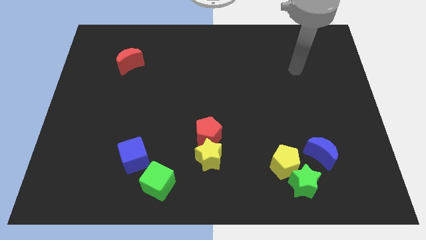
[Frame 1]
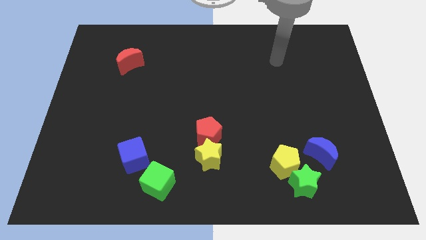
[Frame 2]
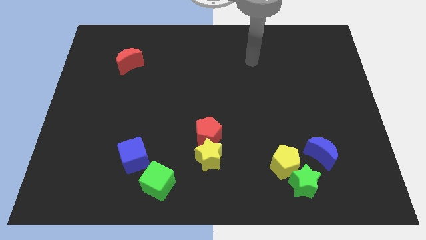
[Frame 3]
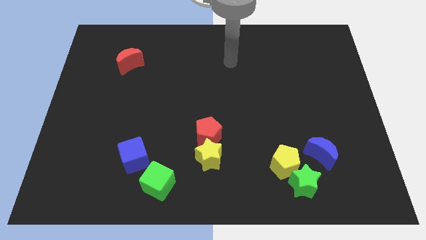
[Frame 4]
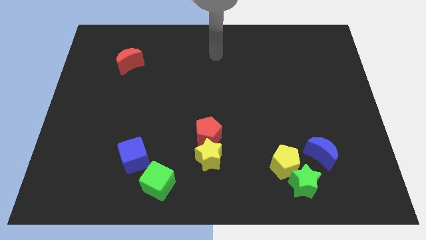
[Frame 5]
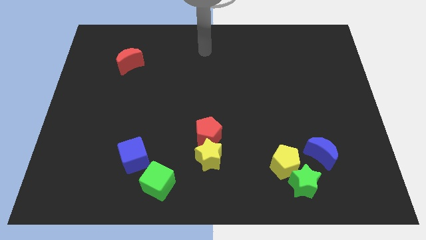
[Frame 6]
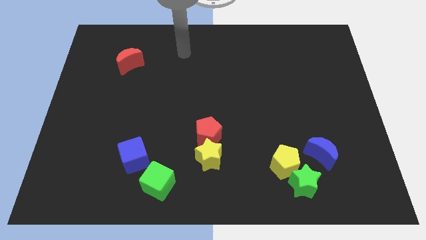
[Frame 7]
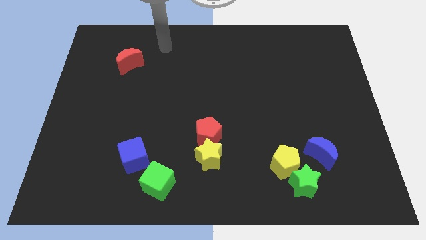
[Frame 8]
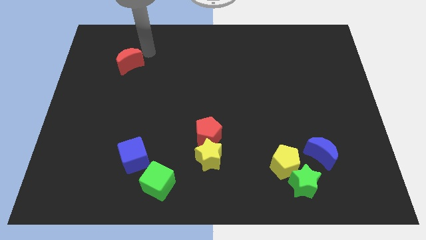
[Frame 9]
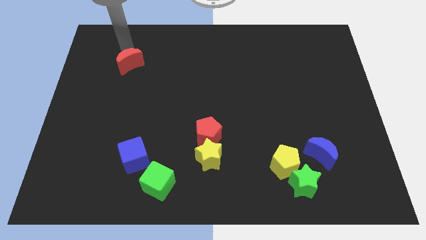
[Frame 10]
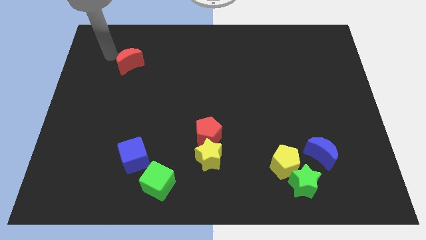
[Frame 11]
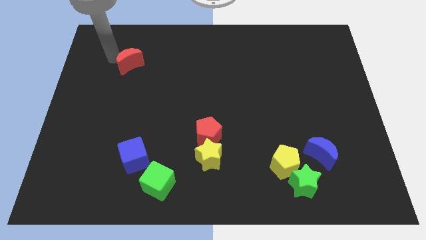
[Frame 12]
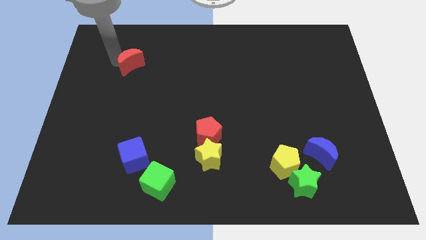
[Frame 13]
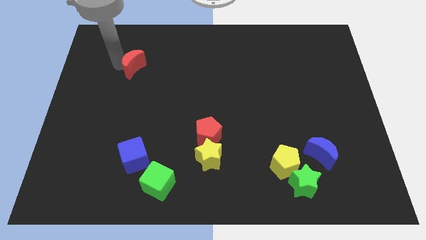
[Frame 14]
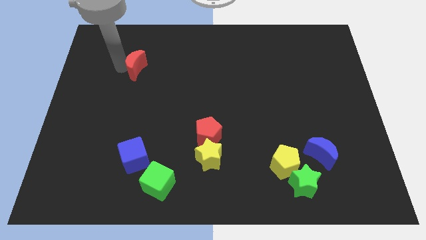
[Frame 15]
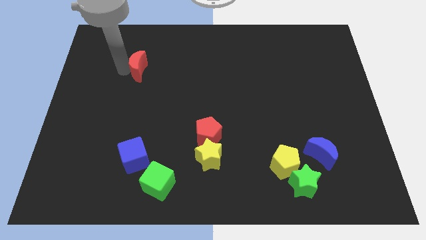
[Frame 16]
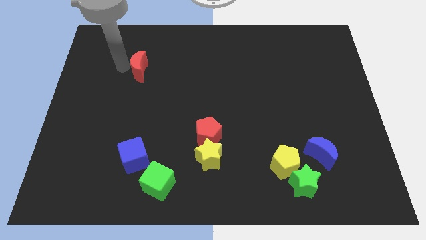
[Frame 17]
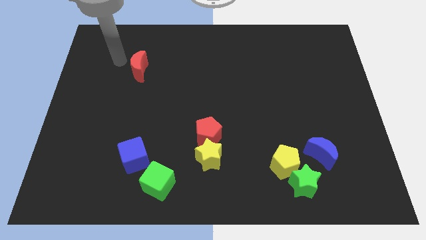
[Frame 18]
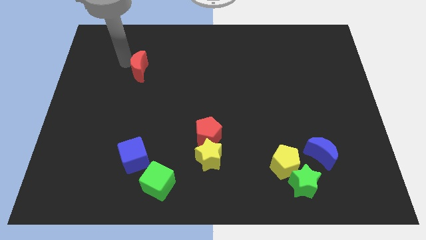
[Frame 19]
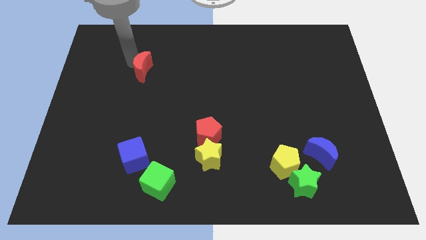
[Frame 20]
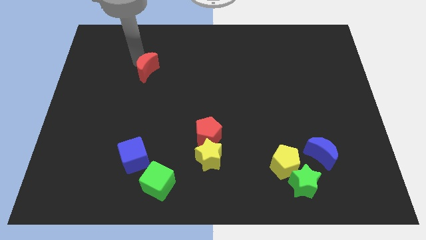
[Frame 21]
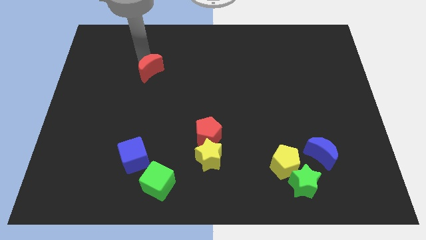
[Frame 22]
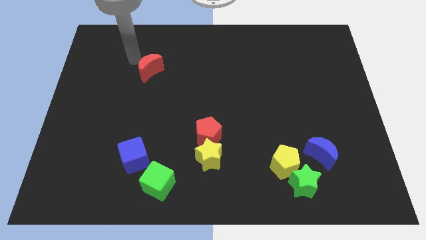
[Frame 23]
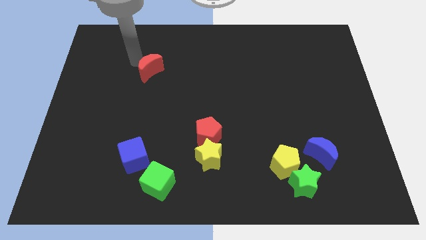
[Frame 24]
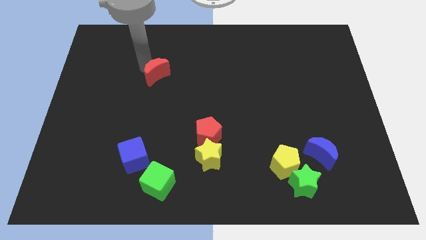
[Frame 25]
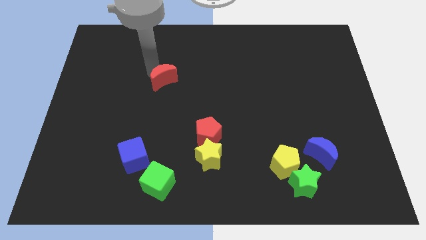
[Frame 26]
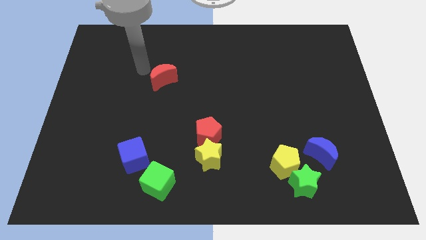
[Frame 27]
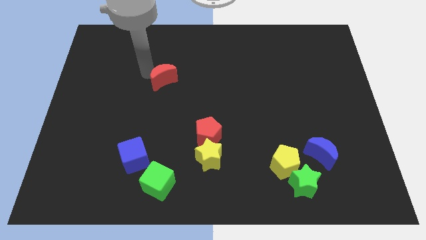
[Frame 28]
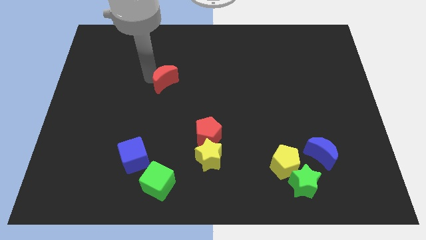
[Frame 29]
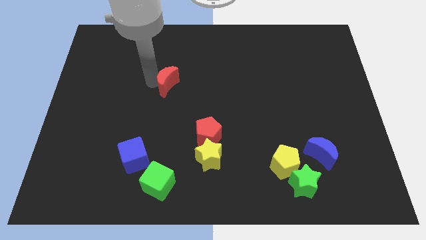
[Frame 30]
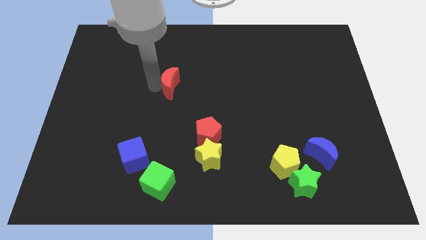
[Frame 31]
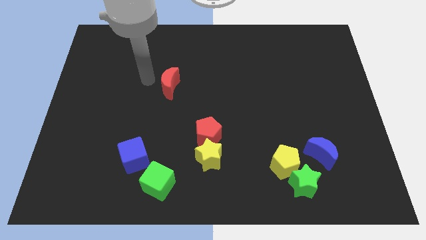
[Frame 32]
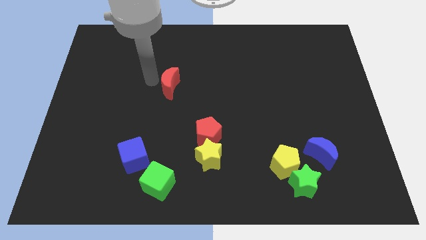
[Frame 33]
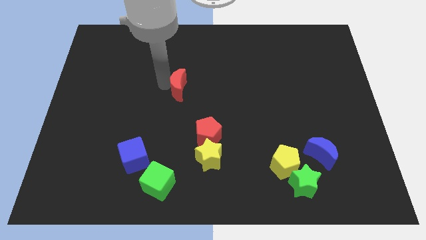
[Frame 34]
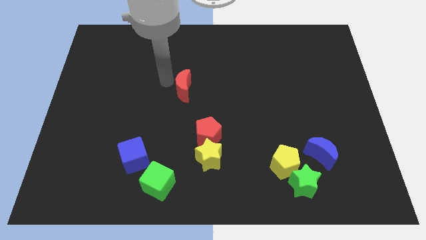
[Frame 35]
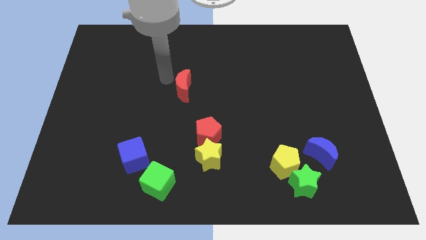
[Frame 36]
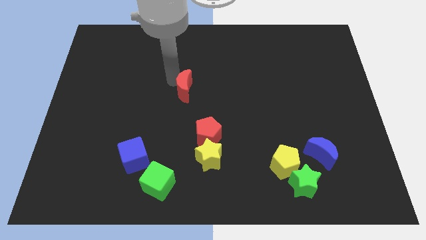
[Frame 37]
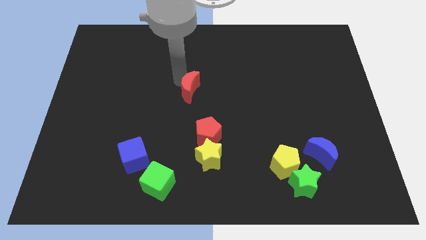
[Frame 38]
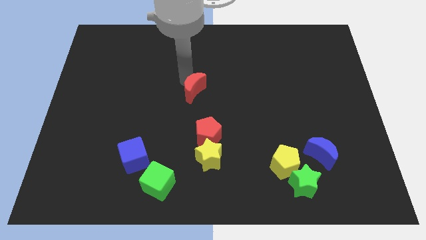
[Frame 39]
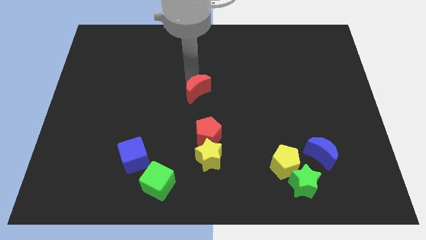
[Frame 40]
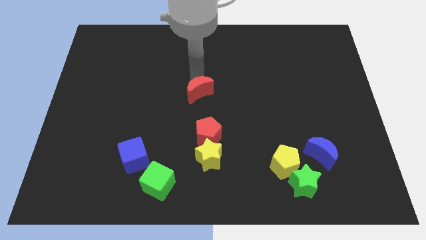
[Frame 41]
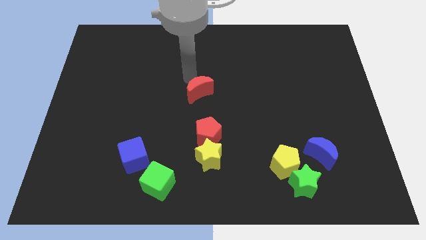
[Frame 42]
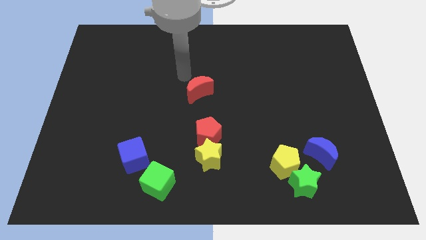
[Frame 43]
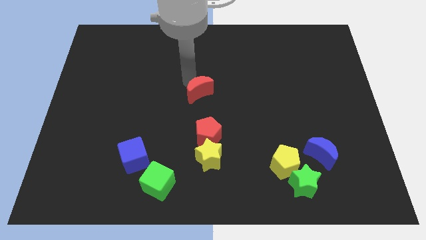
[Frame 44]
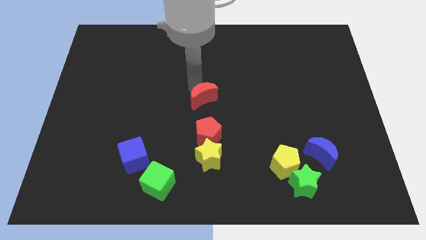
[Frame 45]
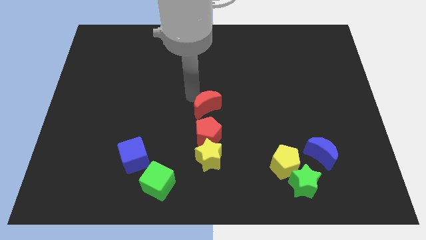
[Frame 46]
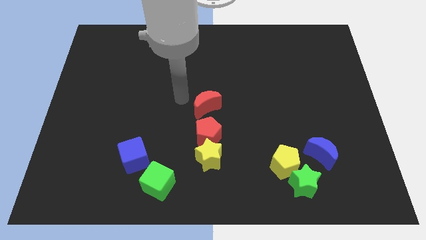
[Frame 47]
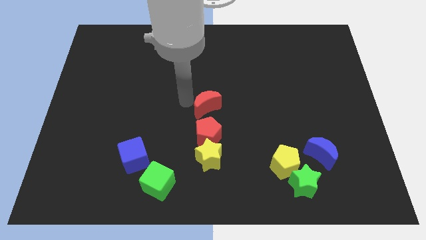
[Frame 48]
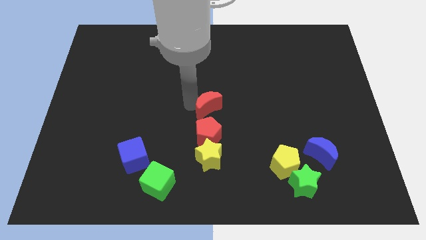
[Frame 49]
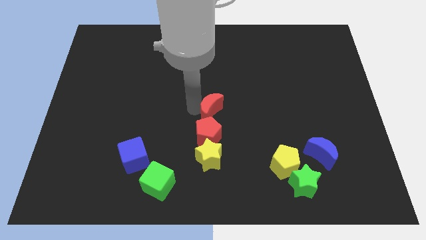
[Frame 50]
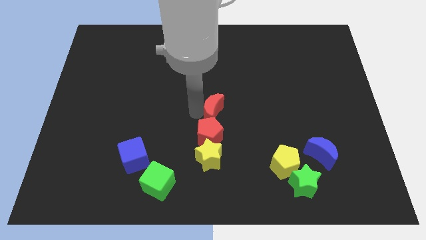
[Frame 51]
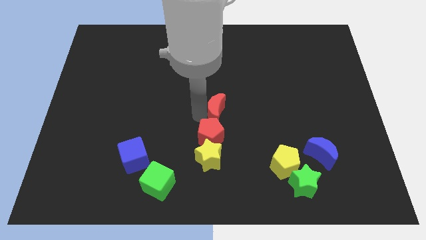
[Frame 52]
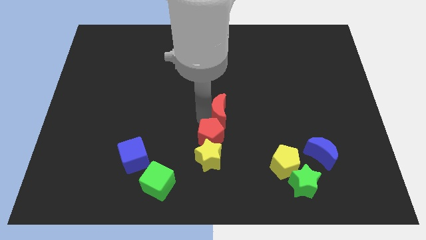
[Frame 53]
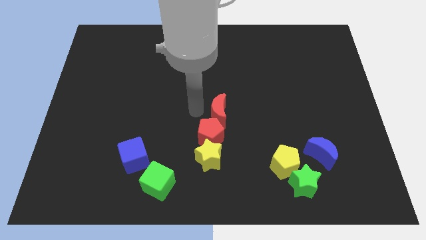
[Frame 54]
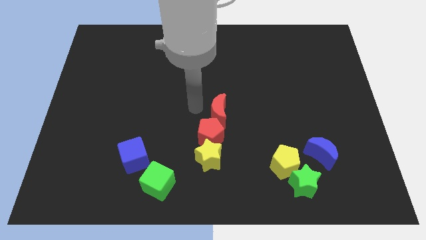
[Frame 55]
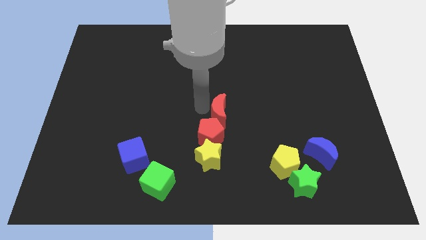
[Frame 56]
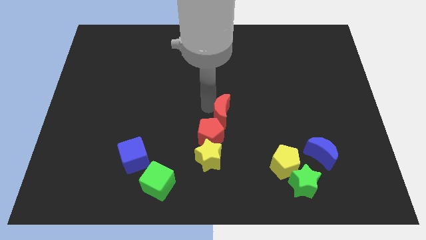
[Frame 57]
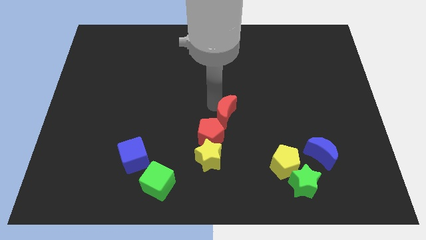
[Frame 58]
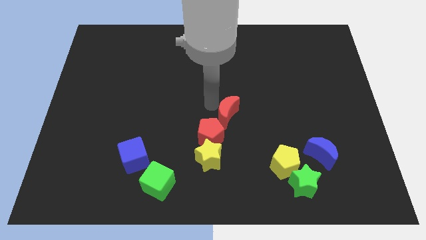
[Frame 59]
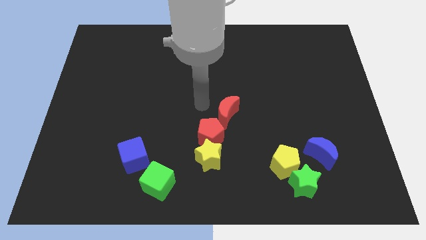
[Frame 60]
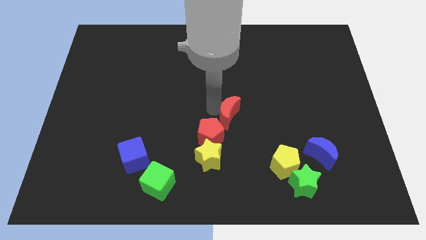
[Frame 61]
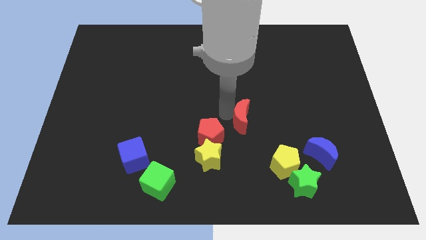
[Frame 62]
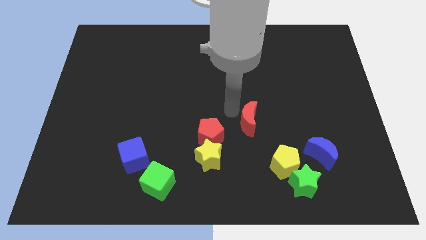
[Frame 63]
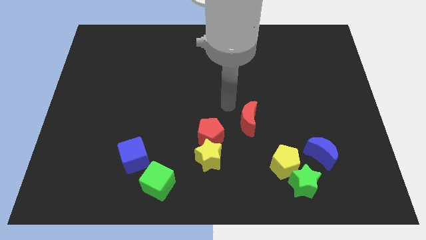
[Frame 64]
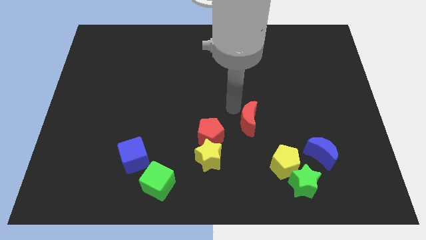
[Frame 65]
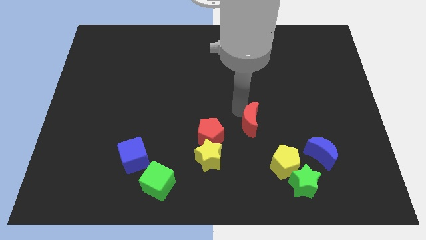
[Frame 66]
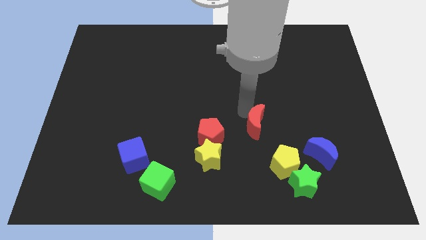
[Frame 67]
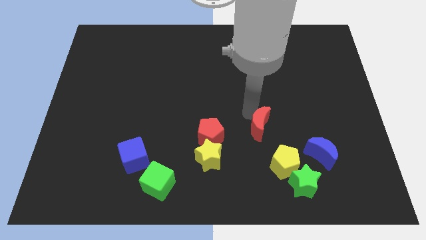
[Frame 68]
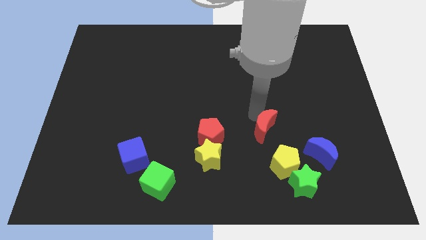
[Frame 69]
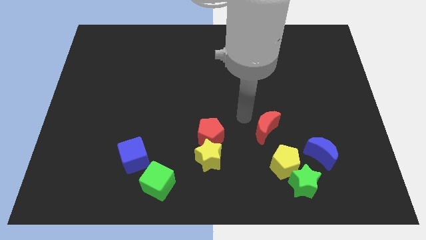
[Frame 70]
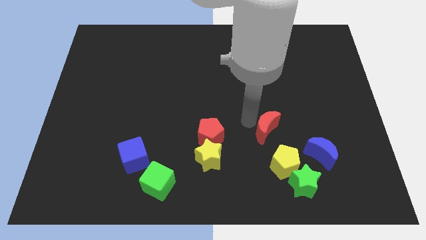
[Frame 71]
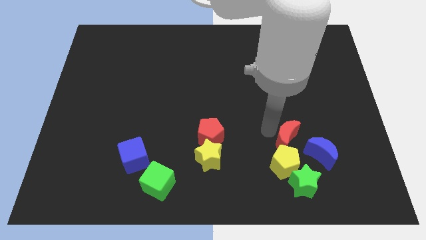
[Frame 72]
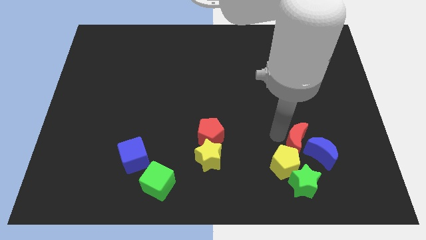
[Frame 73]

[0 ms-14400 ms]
slide the red moon next to the blue moon

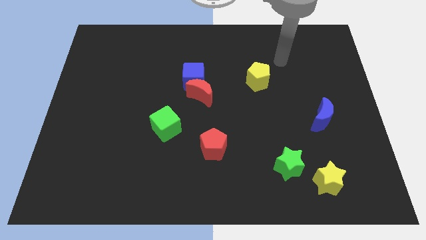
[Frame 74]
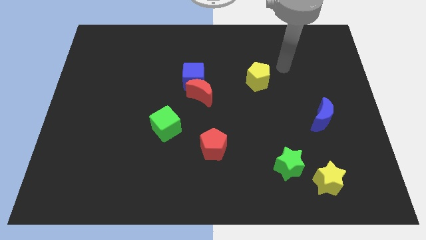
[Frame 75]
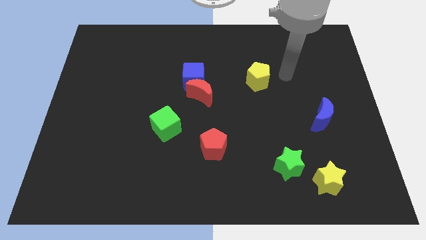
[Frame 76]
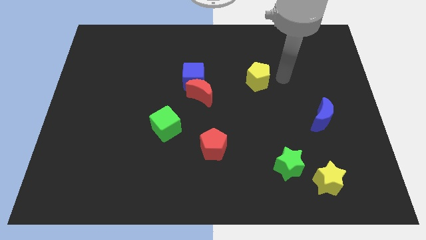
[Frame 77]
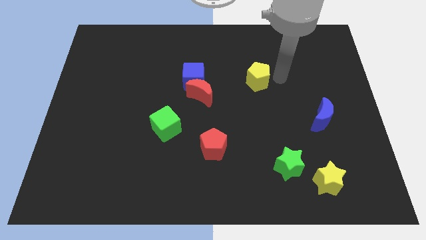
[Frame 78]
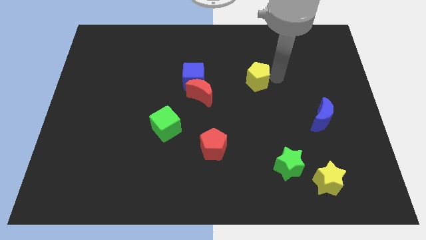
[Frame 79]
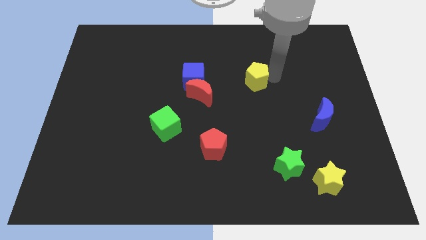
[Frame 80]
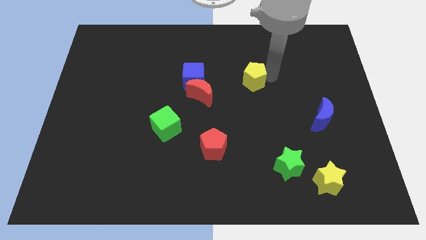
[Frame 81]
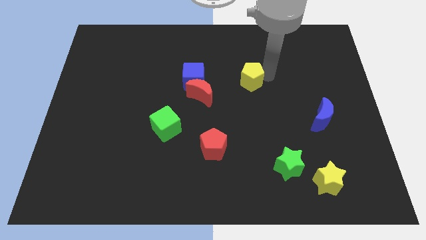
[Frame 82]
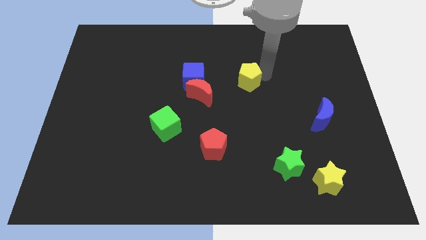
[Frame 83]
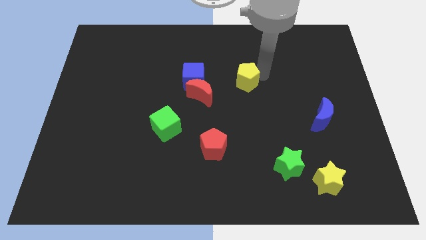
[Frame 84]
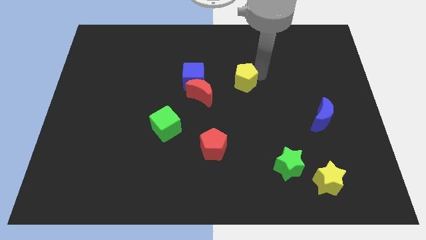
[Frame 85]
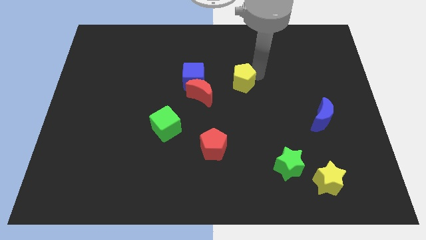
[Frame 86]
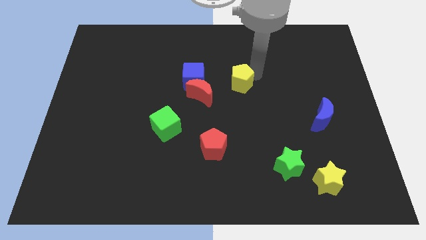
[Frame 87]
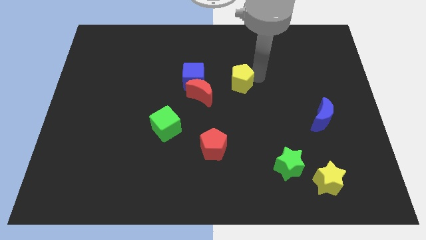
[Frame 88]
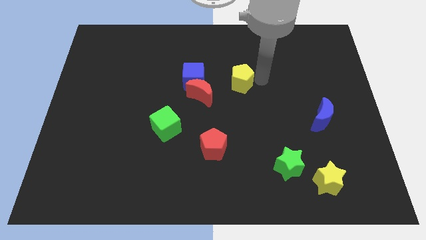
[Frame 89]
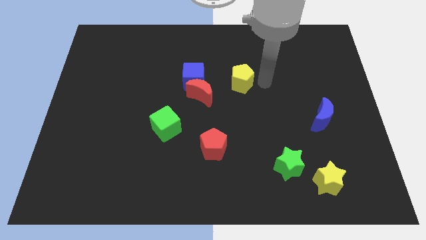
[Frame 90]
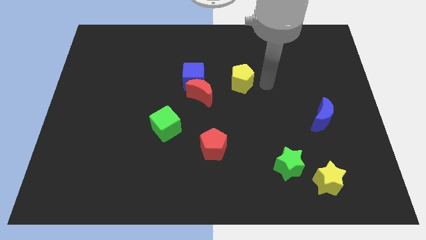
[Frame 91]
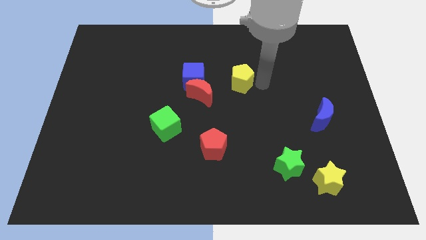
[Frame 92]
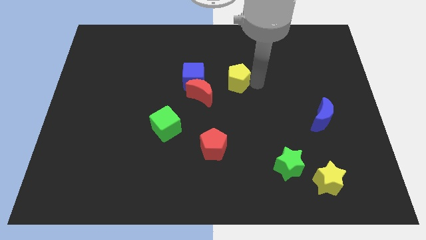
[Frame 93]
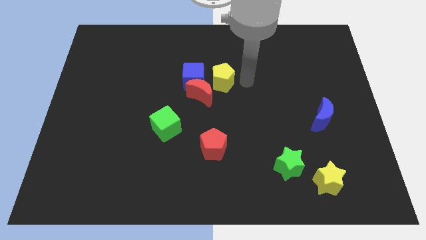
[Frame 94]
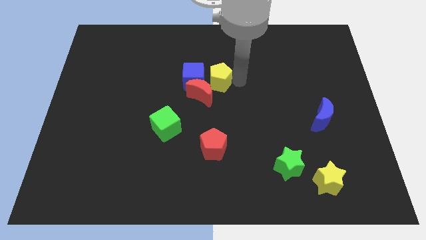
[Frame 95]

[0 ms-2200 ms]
move the yellow pentagon close to the blue cube
